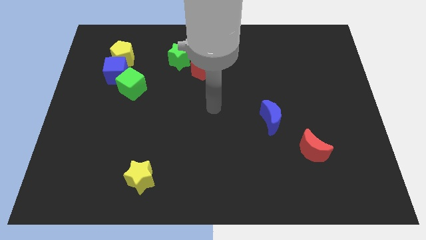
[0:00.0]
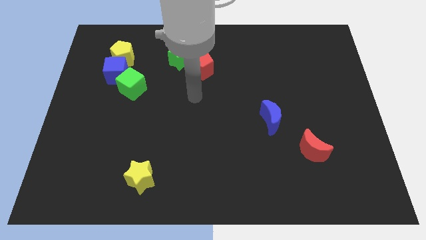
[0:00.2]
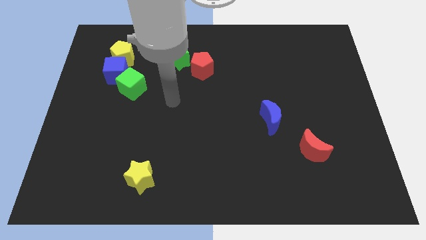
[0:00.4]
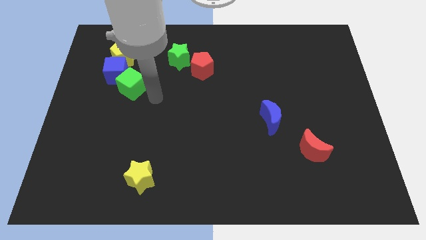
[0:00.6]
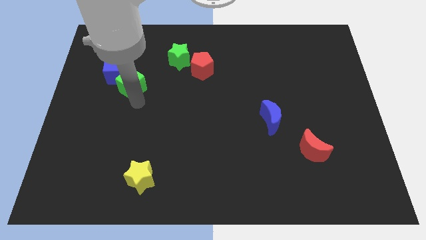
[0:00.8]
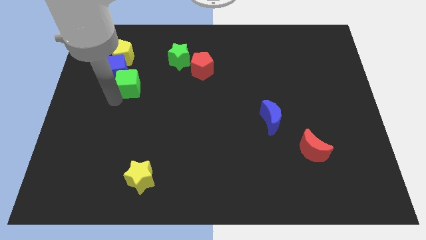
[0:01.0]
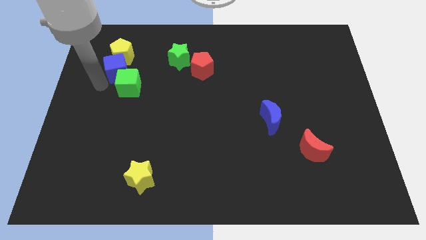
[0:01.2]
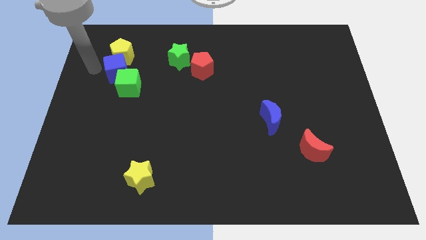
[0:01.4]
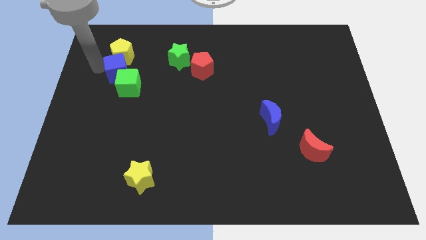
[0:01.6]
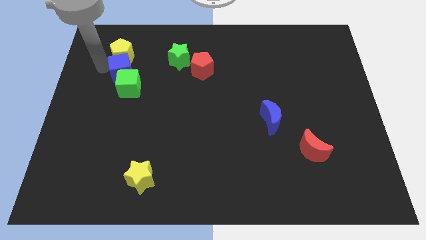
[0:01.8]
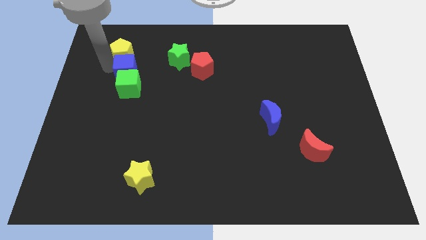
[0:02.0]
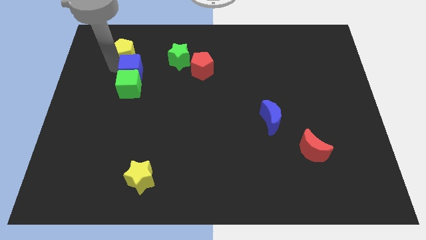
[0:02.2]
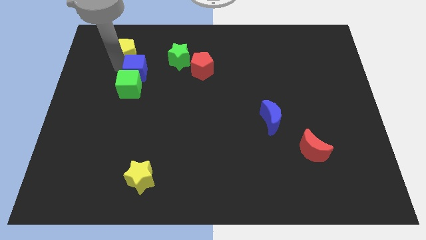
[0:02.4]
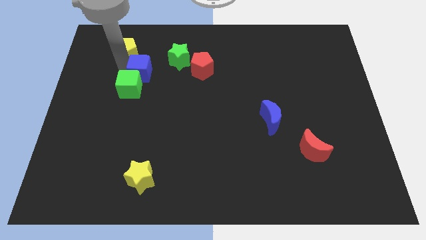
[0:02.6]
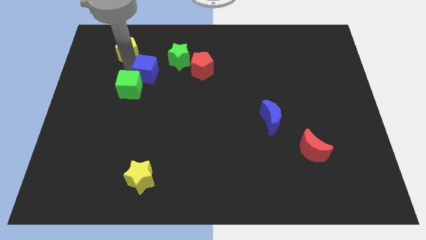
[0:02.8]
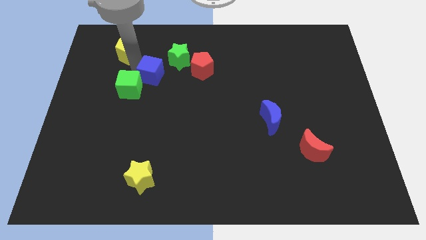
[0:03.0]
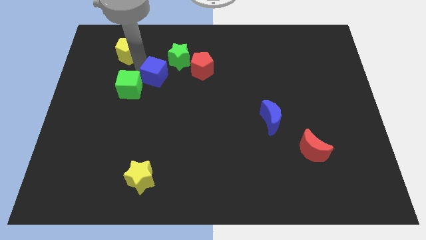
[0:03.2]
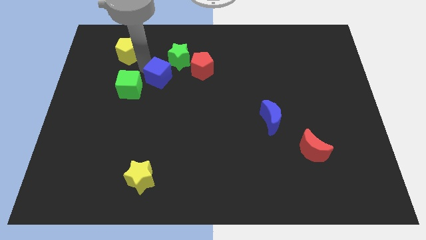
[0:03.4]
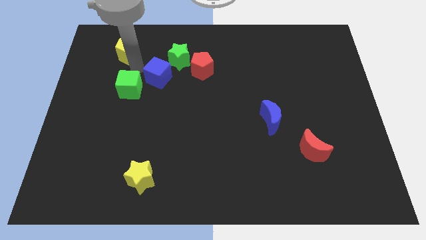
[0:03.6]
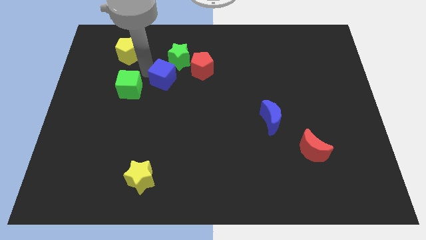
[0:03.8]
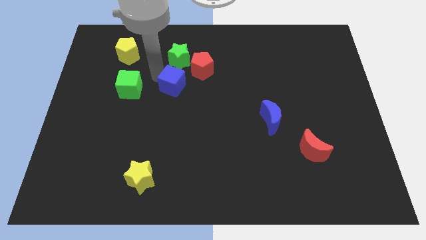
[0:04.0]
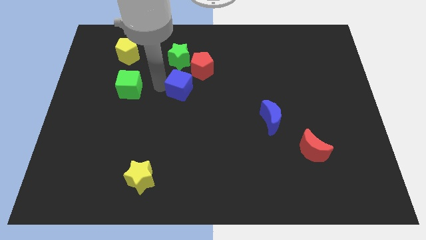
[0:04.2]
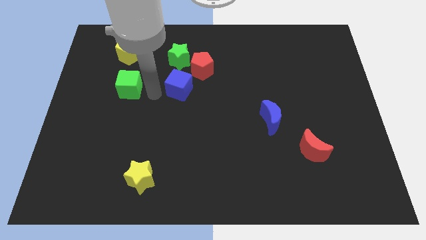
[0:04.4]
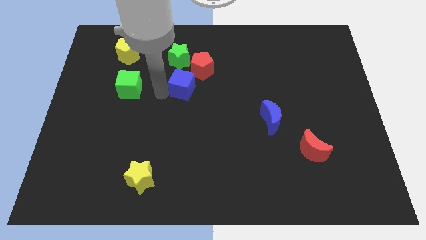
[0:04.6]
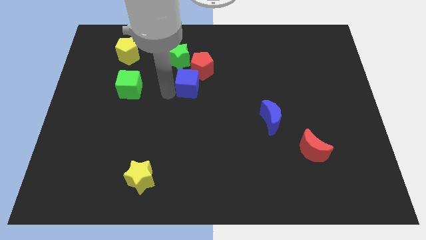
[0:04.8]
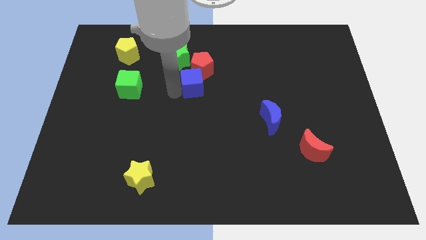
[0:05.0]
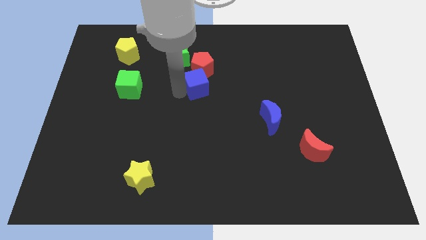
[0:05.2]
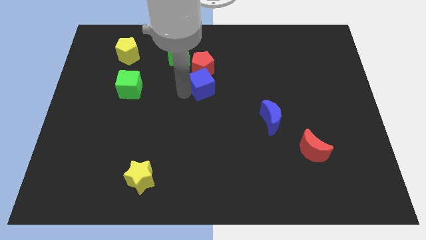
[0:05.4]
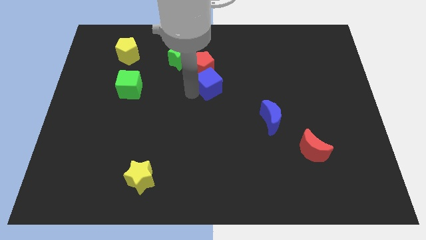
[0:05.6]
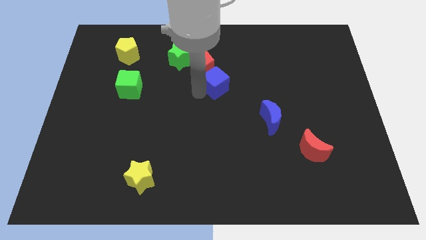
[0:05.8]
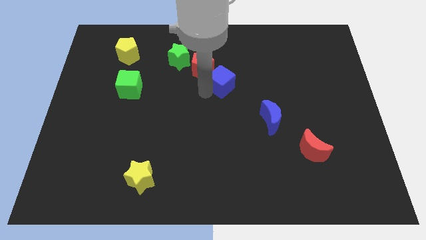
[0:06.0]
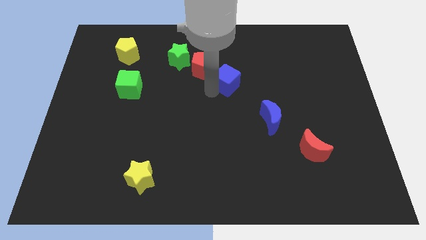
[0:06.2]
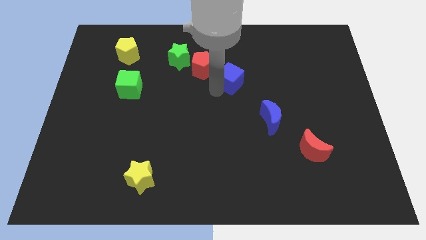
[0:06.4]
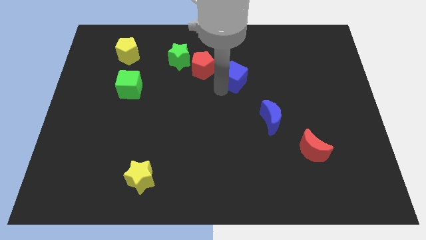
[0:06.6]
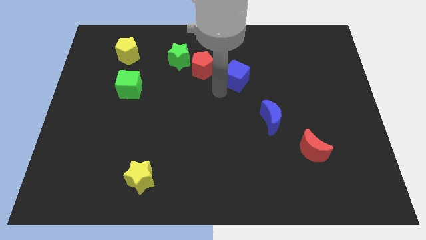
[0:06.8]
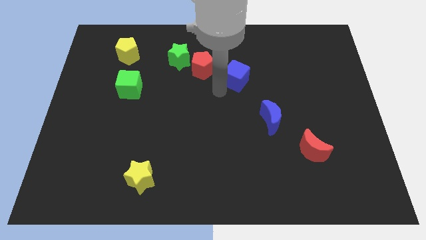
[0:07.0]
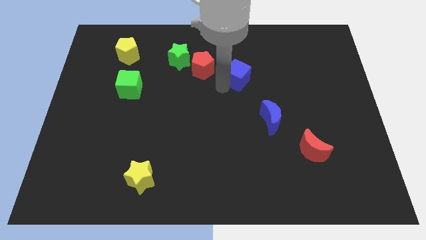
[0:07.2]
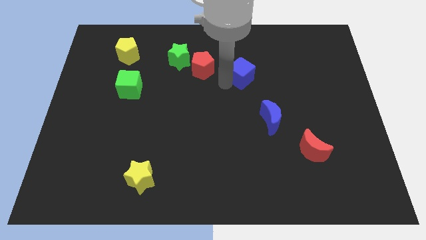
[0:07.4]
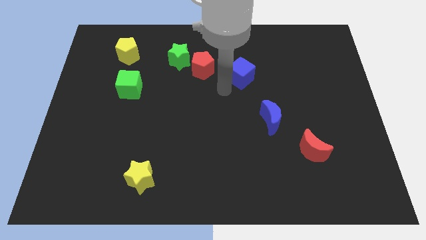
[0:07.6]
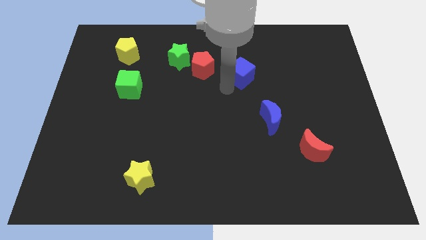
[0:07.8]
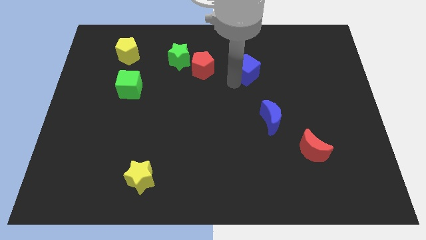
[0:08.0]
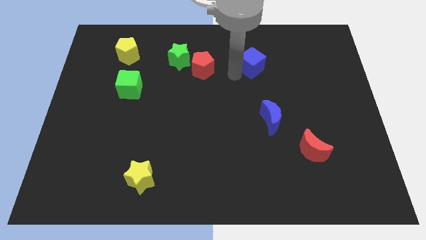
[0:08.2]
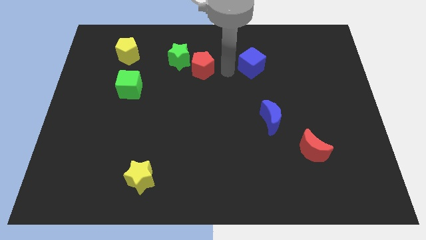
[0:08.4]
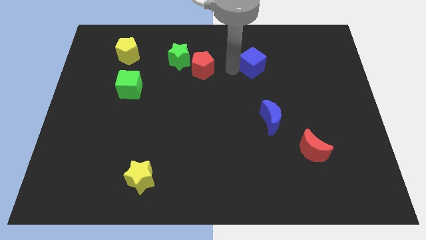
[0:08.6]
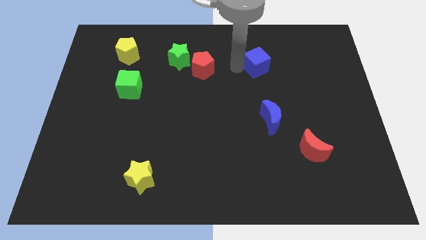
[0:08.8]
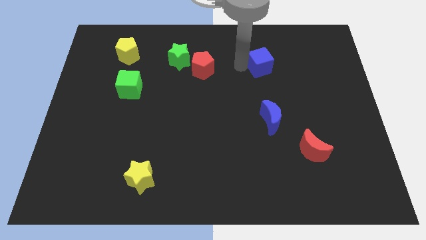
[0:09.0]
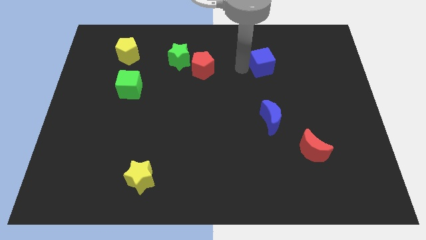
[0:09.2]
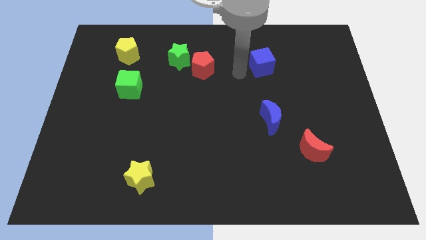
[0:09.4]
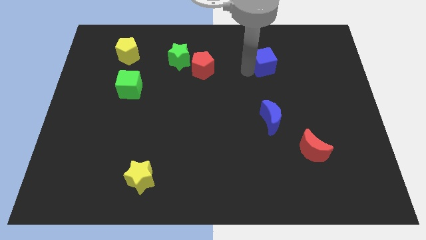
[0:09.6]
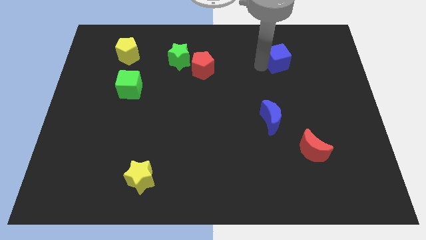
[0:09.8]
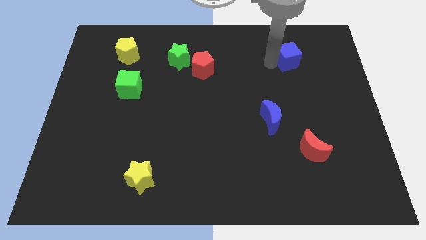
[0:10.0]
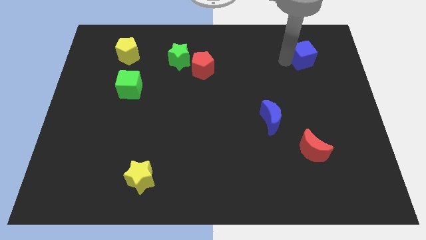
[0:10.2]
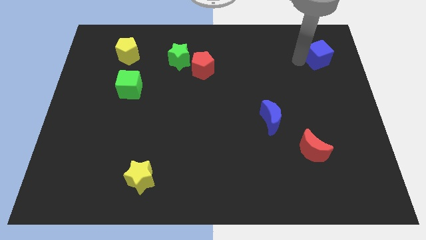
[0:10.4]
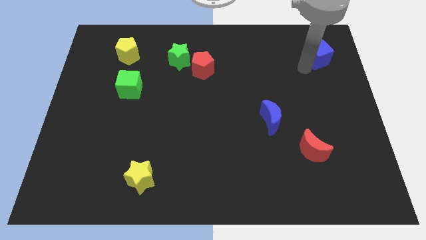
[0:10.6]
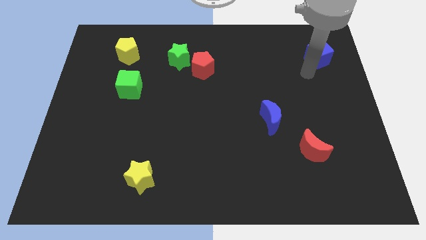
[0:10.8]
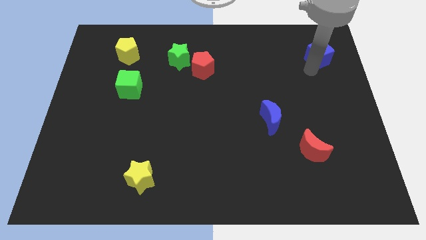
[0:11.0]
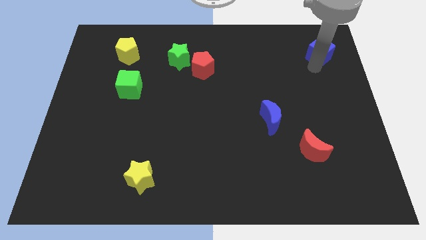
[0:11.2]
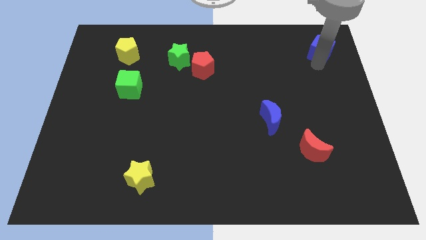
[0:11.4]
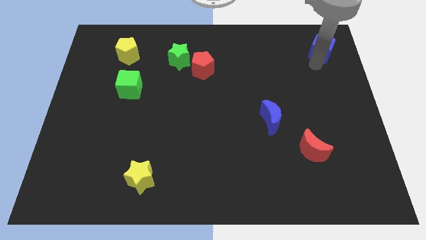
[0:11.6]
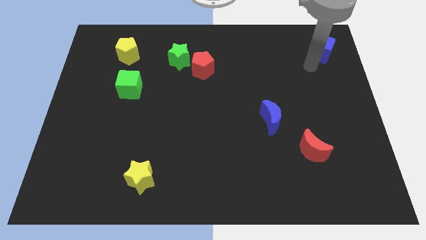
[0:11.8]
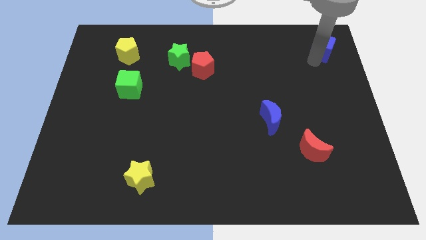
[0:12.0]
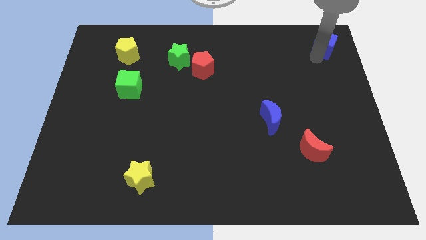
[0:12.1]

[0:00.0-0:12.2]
slide the blue cube to the upper right corner
